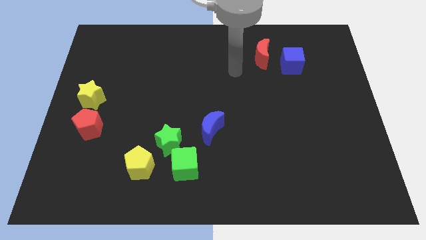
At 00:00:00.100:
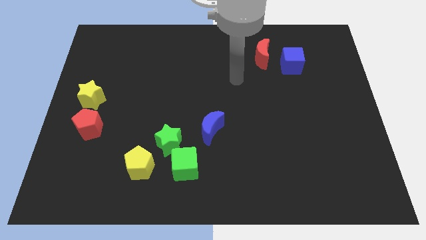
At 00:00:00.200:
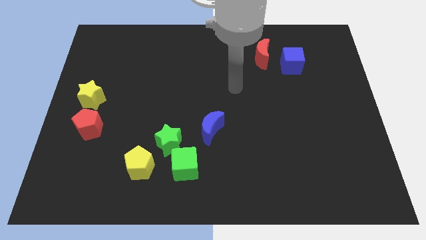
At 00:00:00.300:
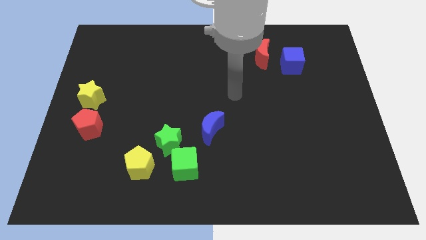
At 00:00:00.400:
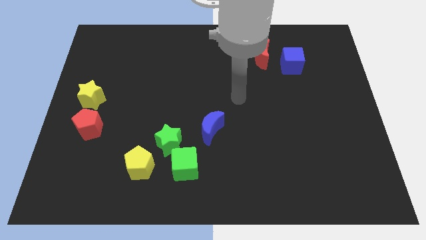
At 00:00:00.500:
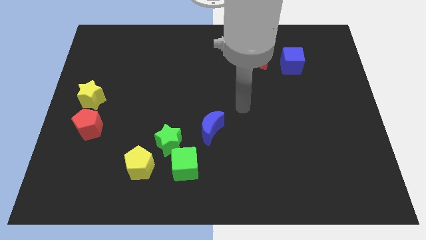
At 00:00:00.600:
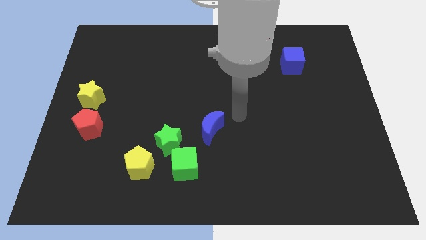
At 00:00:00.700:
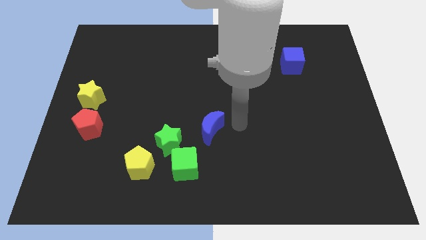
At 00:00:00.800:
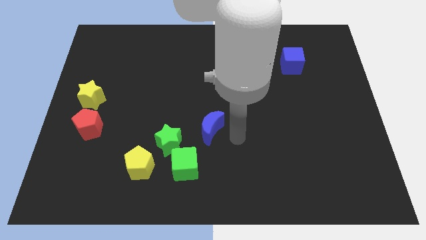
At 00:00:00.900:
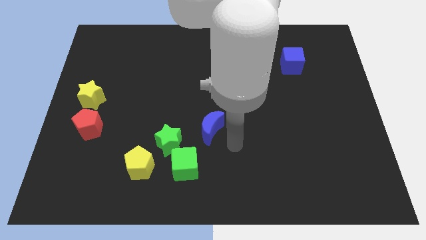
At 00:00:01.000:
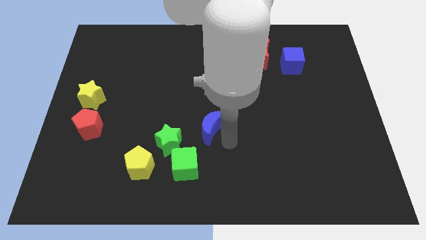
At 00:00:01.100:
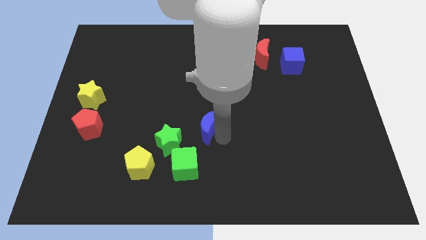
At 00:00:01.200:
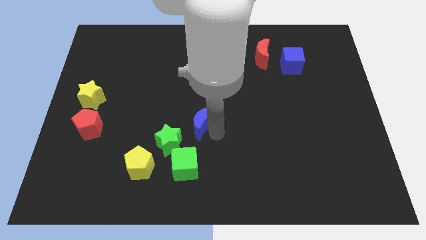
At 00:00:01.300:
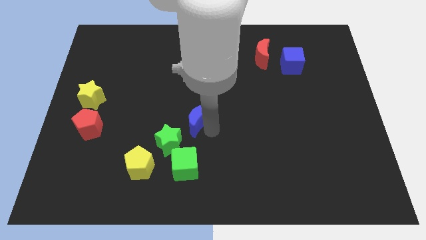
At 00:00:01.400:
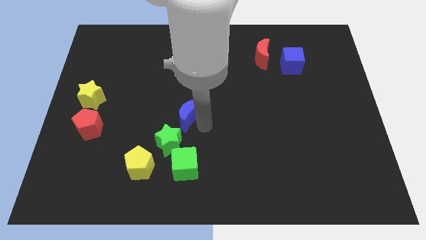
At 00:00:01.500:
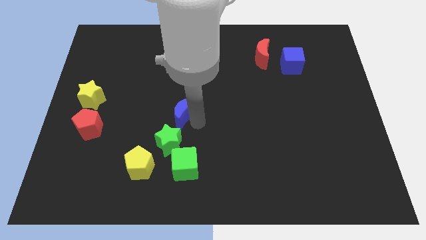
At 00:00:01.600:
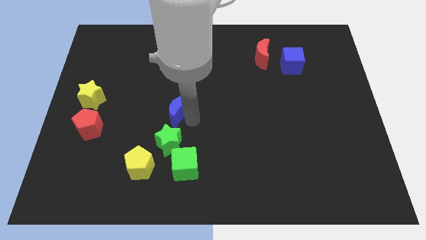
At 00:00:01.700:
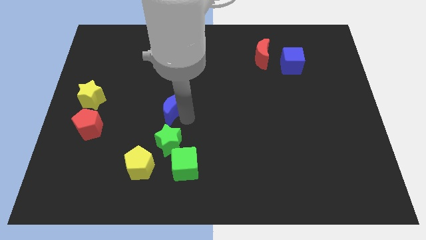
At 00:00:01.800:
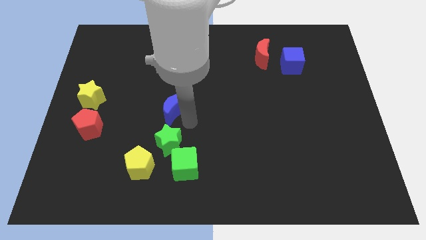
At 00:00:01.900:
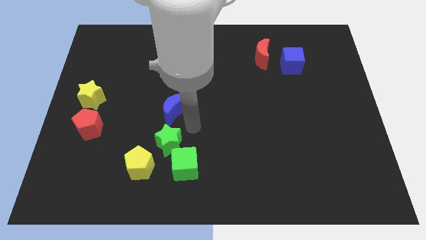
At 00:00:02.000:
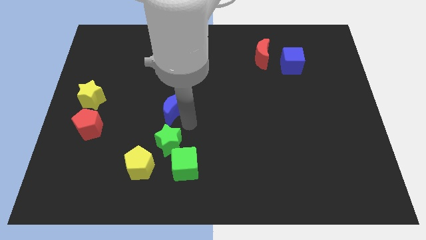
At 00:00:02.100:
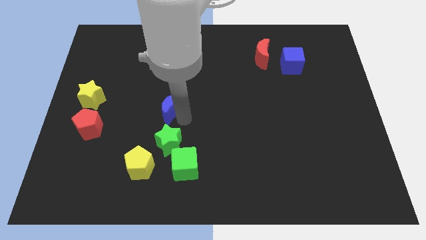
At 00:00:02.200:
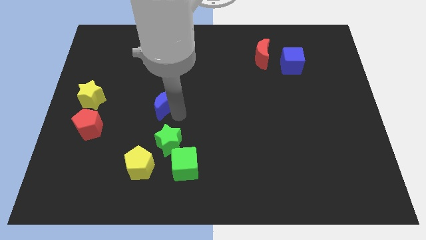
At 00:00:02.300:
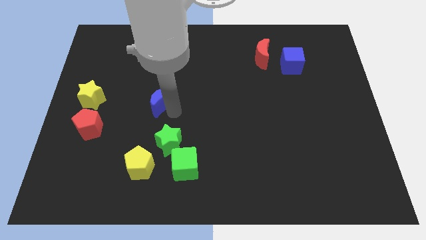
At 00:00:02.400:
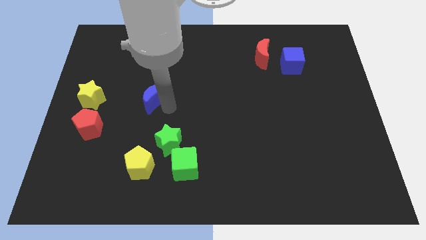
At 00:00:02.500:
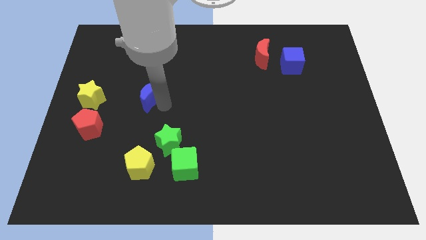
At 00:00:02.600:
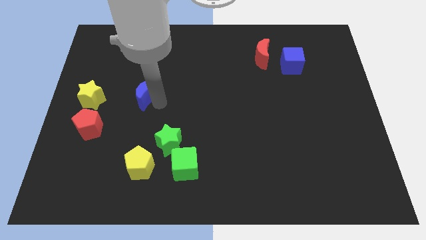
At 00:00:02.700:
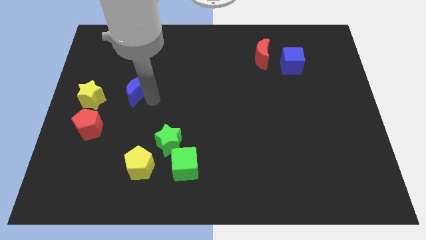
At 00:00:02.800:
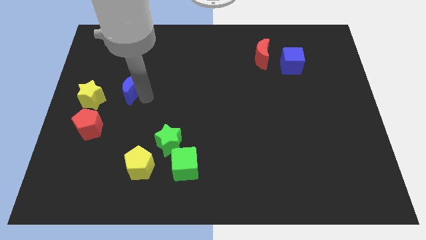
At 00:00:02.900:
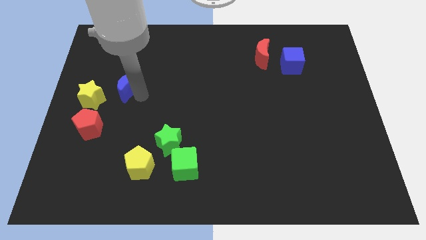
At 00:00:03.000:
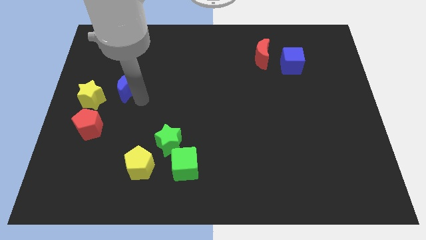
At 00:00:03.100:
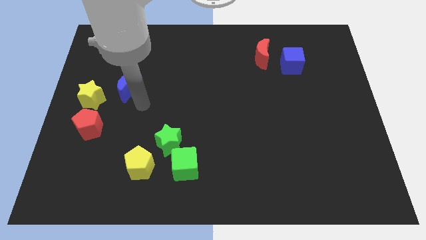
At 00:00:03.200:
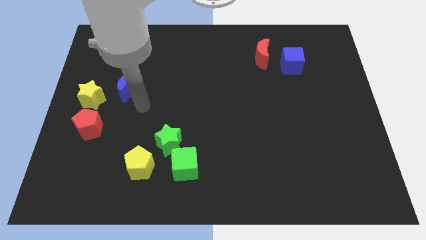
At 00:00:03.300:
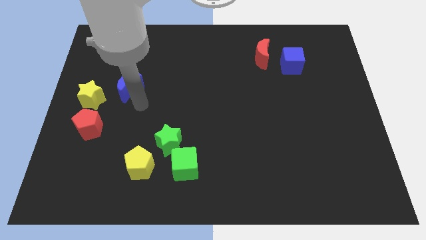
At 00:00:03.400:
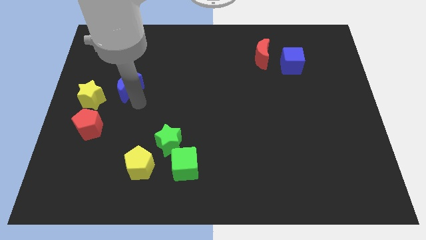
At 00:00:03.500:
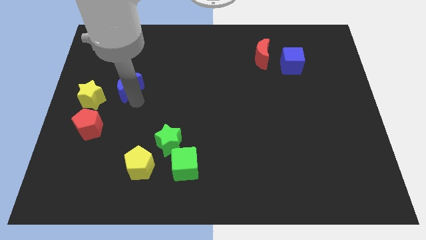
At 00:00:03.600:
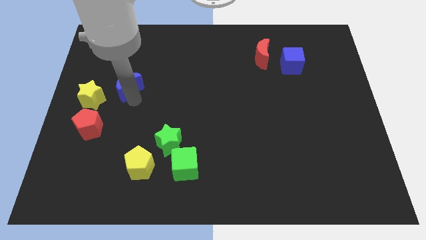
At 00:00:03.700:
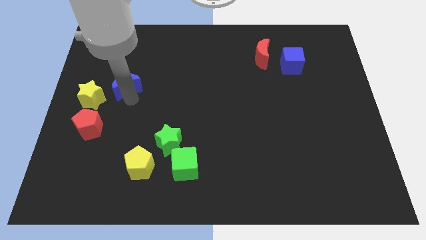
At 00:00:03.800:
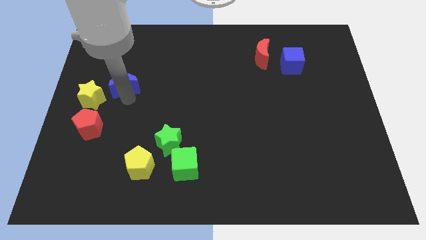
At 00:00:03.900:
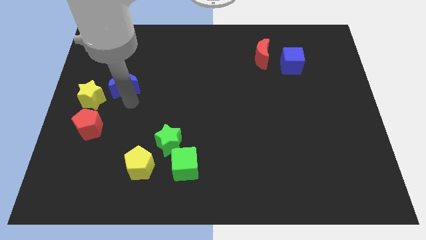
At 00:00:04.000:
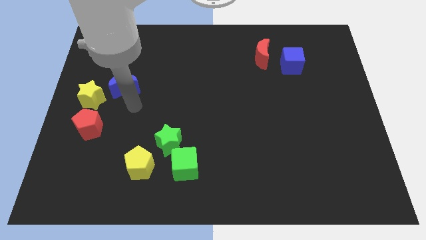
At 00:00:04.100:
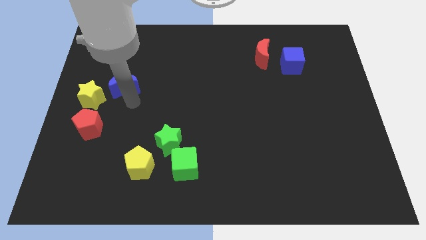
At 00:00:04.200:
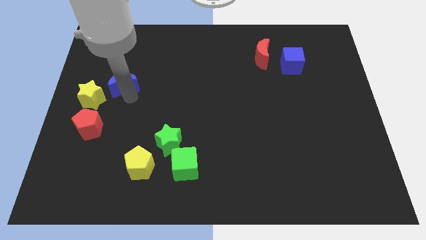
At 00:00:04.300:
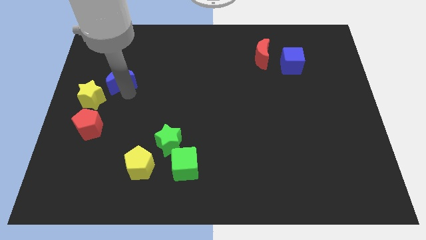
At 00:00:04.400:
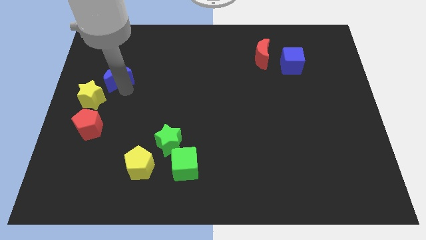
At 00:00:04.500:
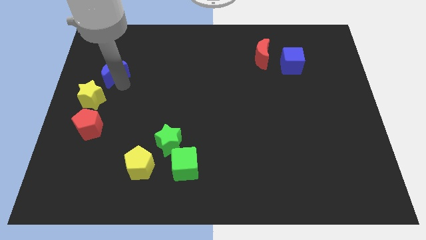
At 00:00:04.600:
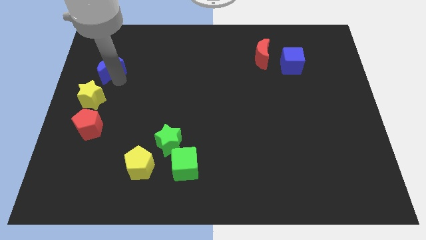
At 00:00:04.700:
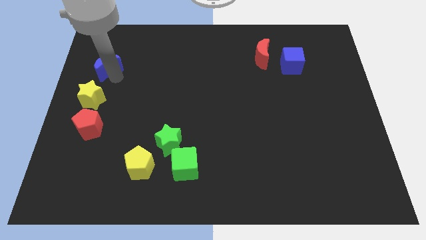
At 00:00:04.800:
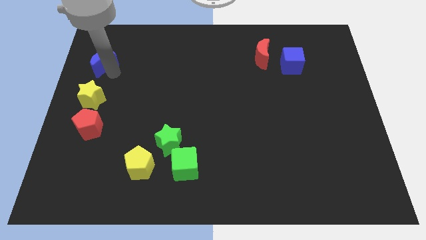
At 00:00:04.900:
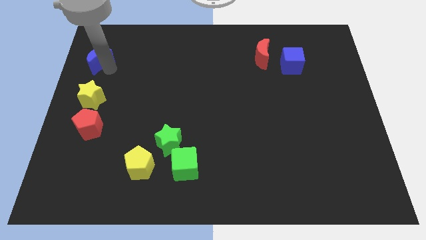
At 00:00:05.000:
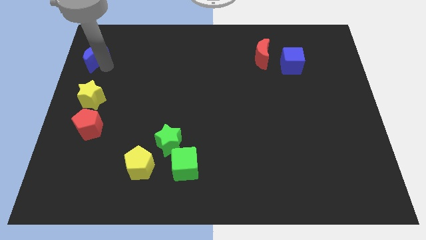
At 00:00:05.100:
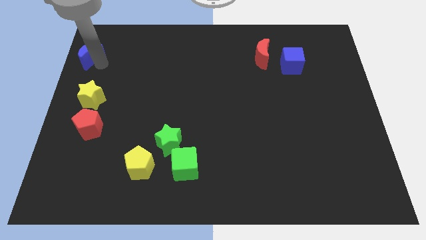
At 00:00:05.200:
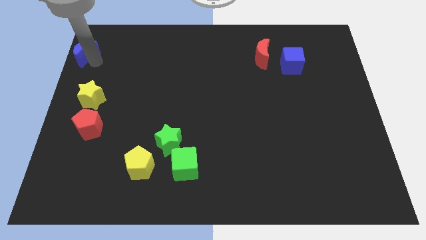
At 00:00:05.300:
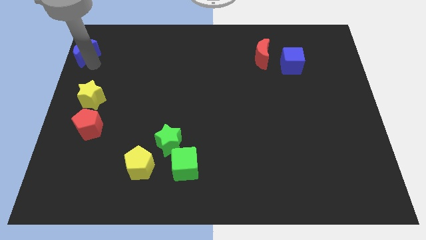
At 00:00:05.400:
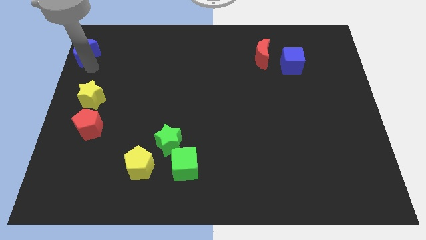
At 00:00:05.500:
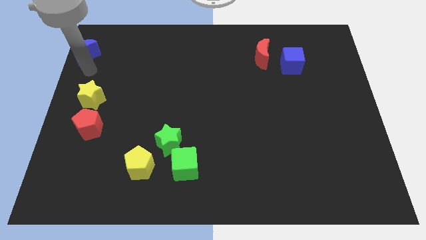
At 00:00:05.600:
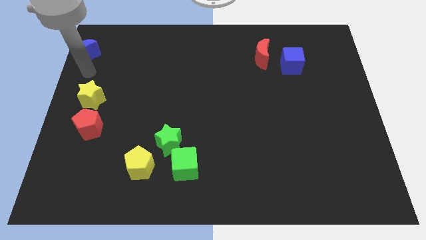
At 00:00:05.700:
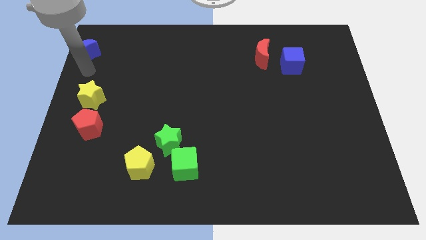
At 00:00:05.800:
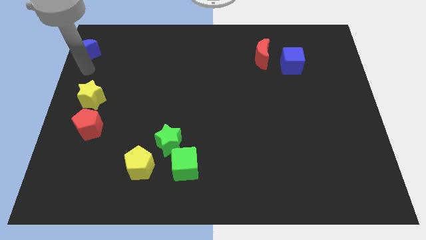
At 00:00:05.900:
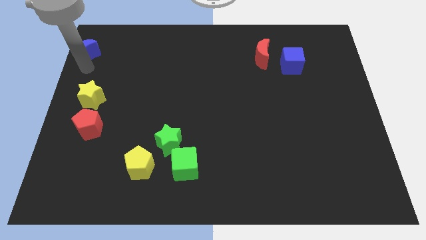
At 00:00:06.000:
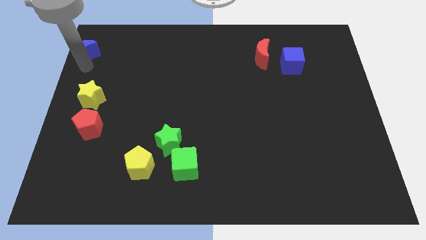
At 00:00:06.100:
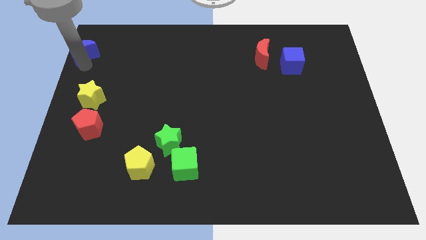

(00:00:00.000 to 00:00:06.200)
move the blue moon to the top left
